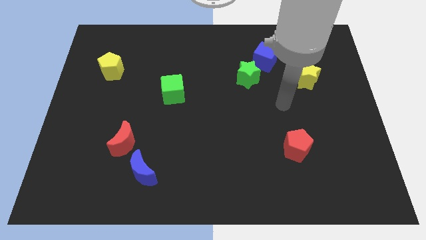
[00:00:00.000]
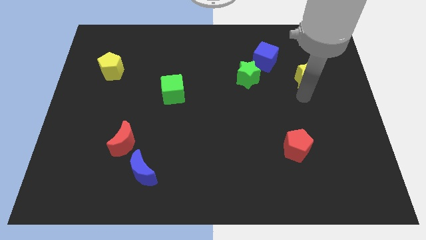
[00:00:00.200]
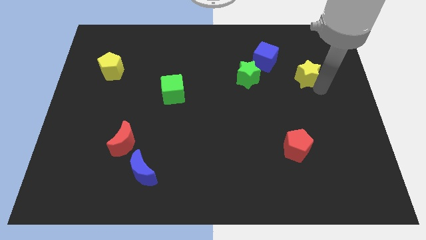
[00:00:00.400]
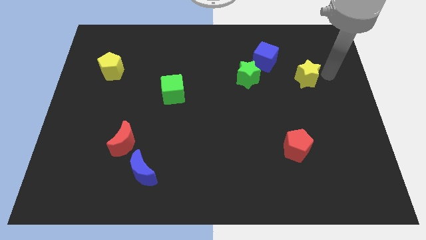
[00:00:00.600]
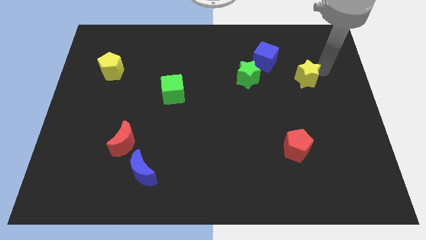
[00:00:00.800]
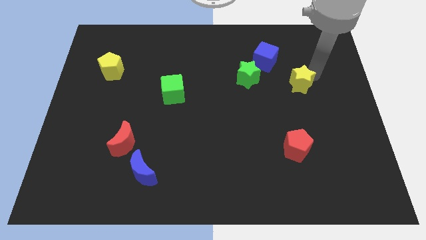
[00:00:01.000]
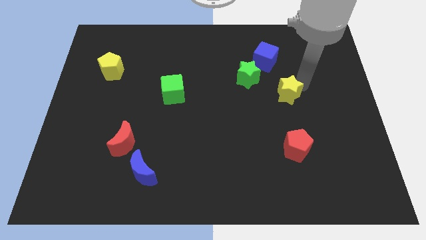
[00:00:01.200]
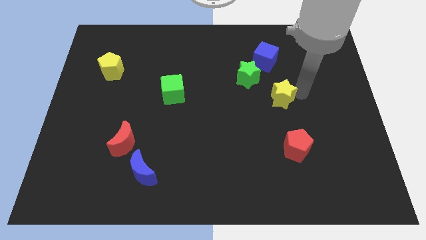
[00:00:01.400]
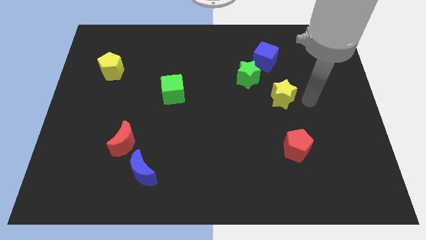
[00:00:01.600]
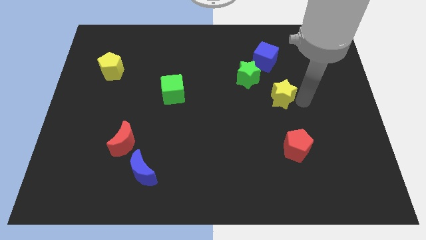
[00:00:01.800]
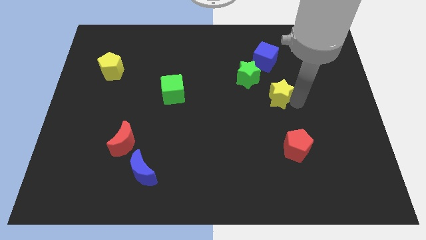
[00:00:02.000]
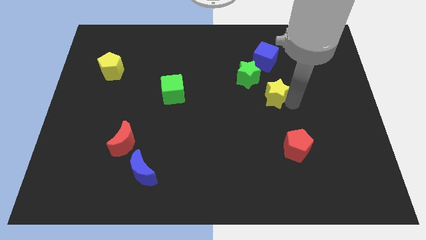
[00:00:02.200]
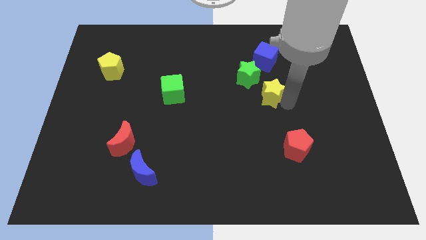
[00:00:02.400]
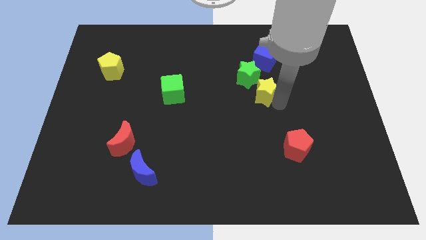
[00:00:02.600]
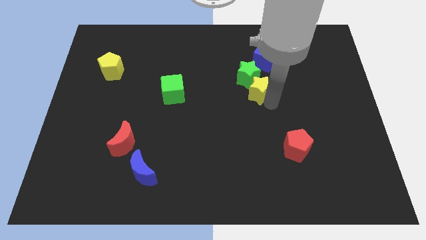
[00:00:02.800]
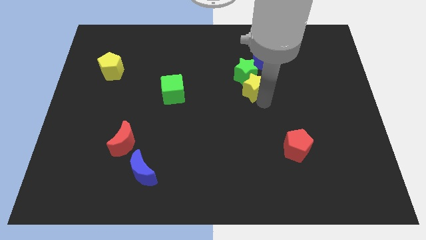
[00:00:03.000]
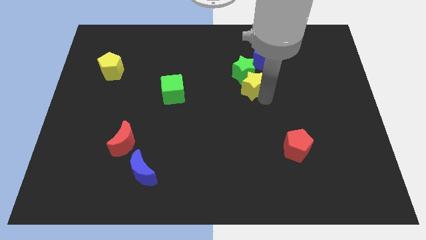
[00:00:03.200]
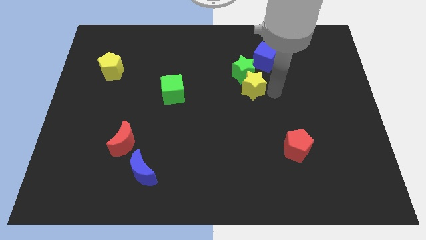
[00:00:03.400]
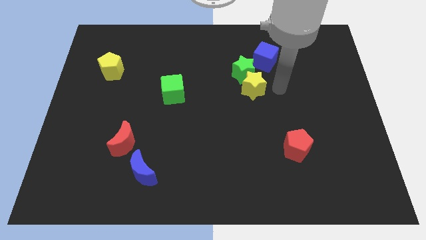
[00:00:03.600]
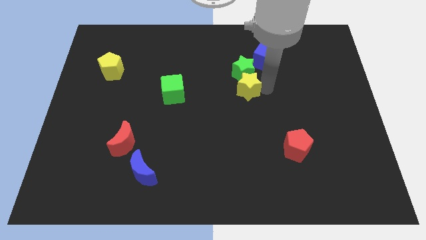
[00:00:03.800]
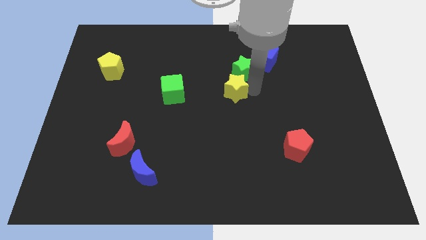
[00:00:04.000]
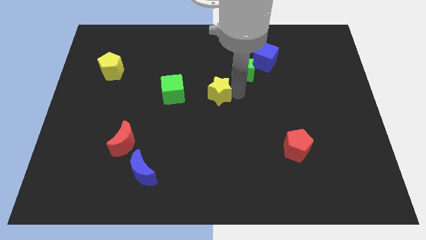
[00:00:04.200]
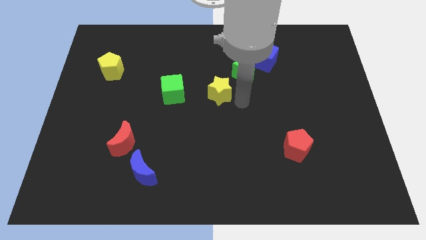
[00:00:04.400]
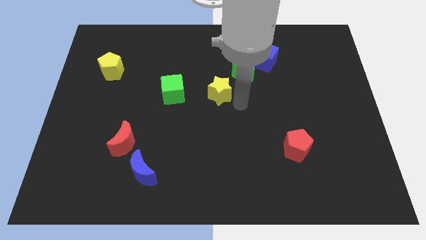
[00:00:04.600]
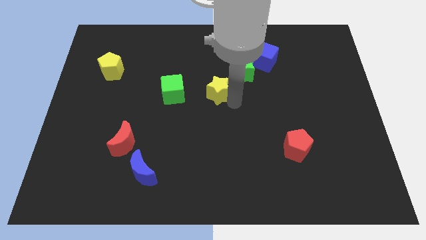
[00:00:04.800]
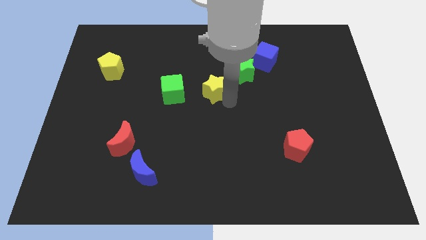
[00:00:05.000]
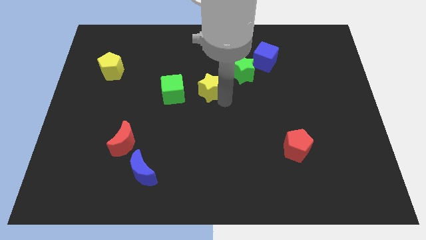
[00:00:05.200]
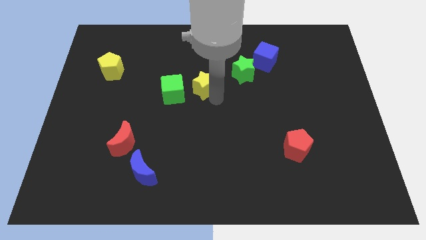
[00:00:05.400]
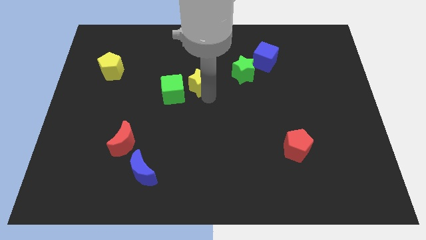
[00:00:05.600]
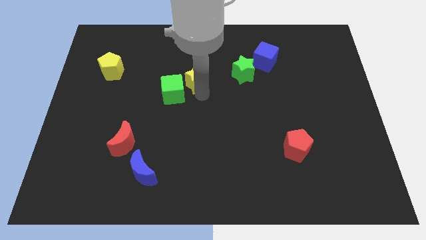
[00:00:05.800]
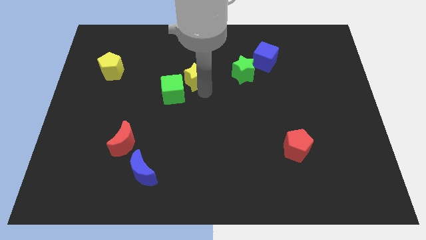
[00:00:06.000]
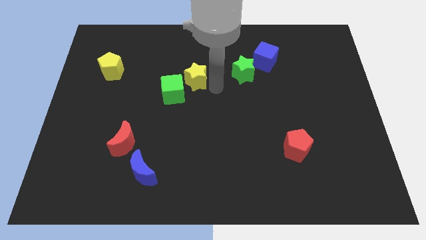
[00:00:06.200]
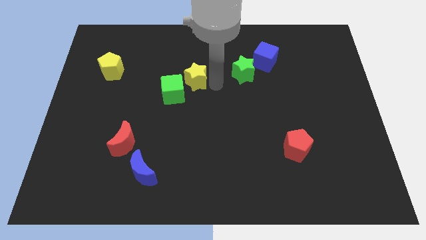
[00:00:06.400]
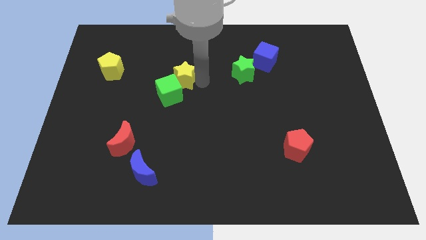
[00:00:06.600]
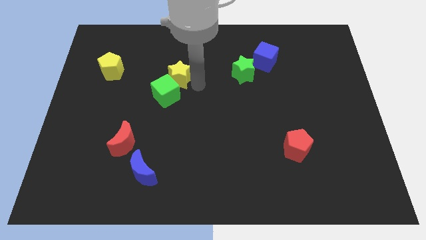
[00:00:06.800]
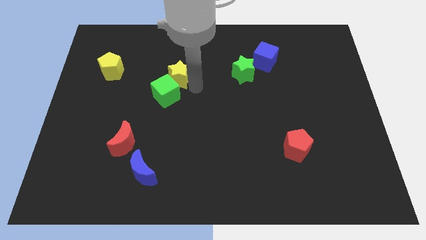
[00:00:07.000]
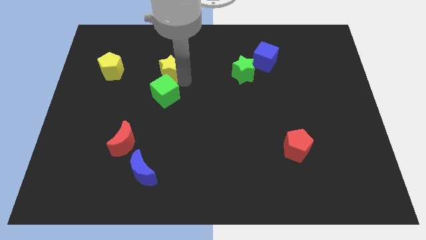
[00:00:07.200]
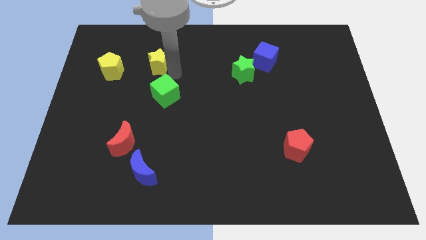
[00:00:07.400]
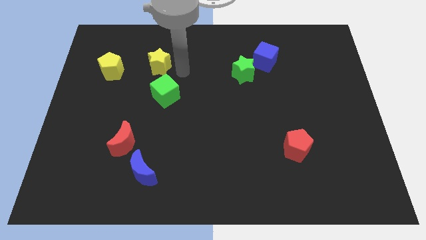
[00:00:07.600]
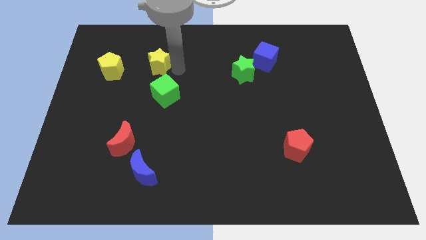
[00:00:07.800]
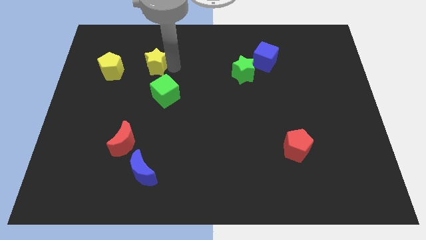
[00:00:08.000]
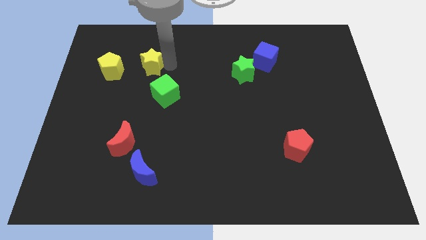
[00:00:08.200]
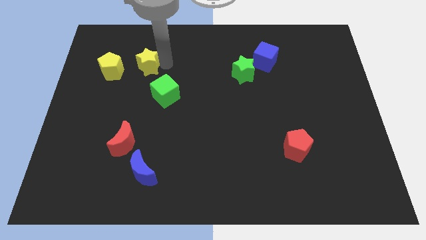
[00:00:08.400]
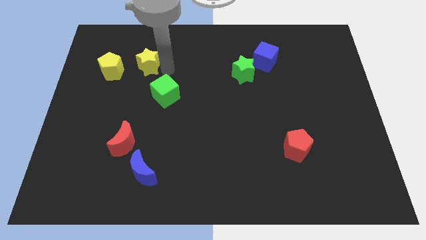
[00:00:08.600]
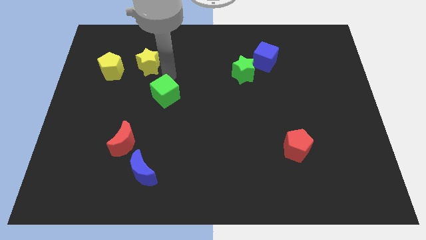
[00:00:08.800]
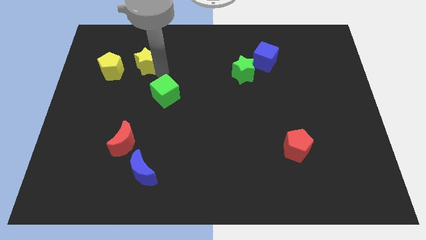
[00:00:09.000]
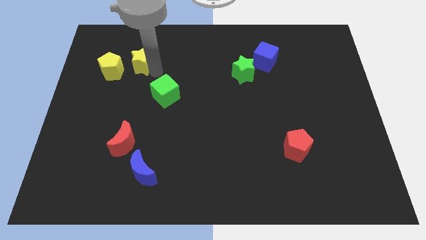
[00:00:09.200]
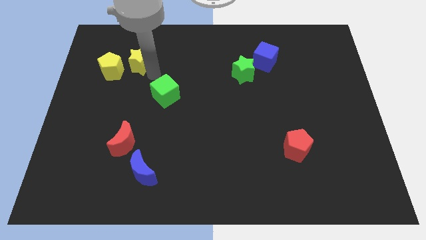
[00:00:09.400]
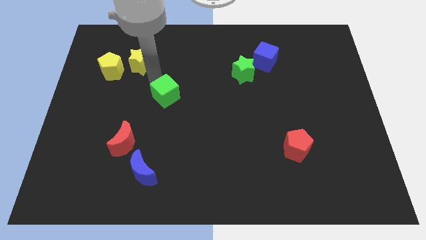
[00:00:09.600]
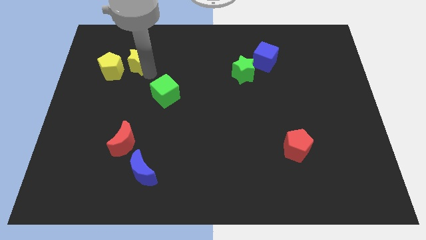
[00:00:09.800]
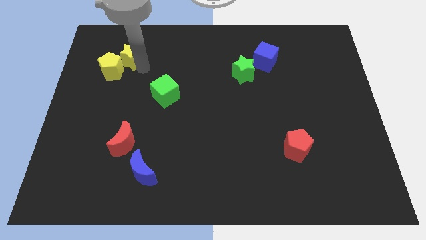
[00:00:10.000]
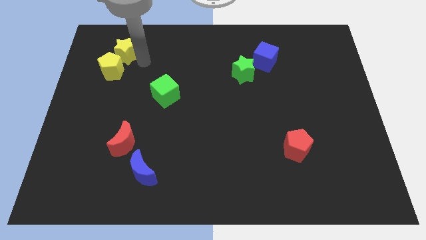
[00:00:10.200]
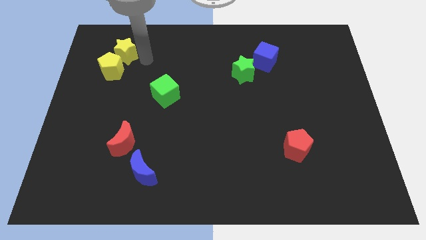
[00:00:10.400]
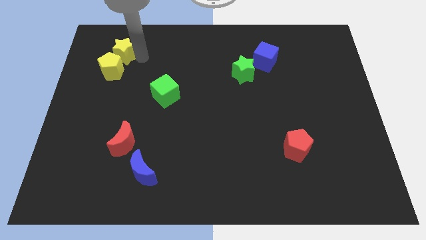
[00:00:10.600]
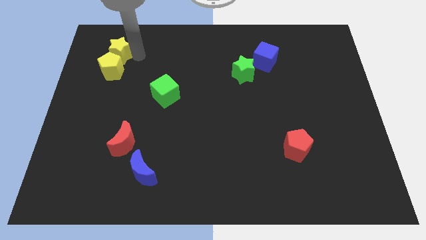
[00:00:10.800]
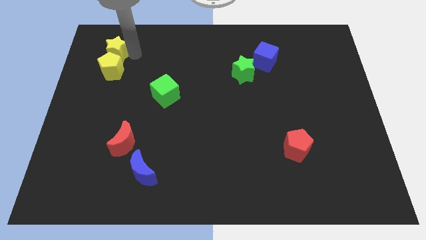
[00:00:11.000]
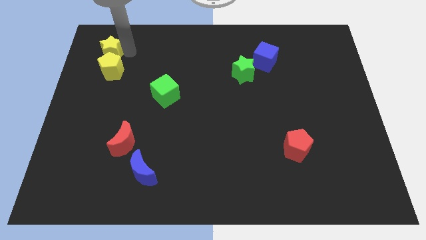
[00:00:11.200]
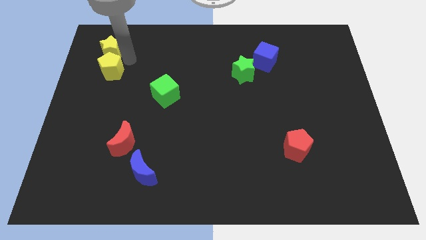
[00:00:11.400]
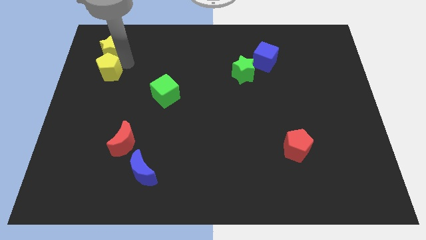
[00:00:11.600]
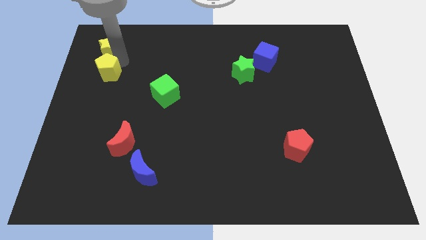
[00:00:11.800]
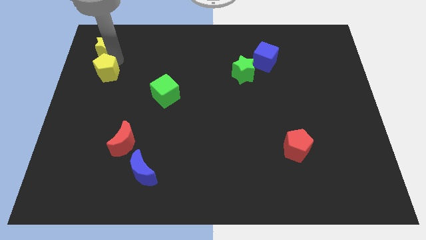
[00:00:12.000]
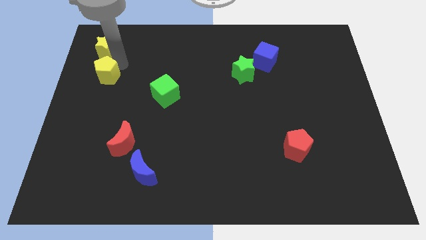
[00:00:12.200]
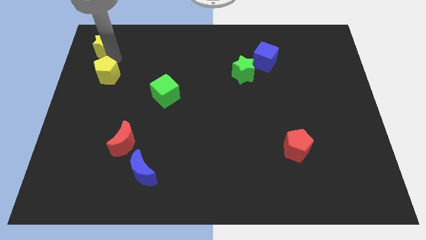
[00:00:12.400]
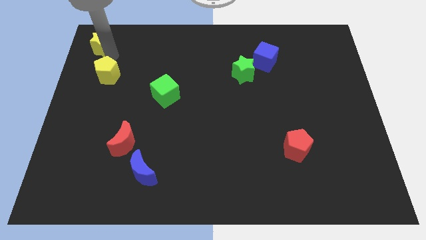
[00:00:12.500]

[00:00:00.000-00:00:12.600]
move the yellow star to the upper left corner

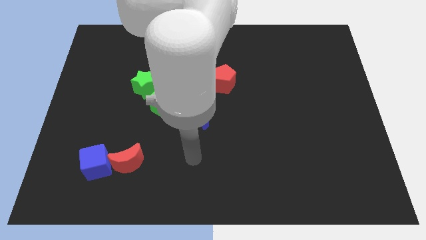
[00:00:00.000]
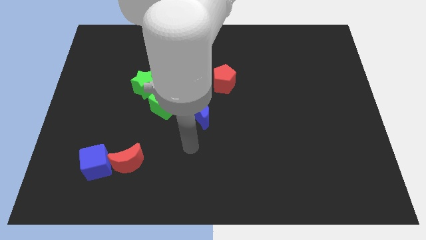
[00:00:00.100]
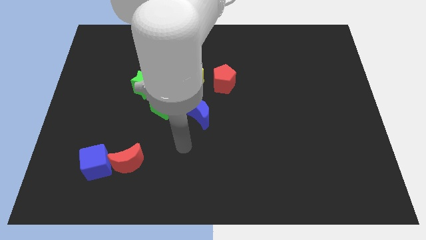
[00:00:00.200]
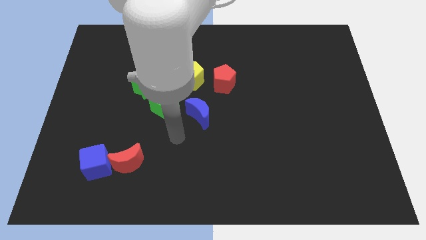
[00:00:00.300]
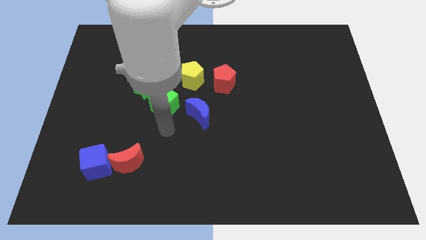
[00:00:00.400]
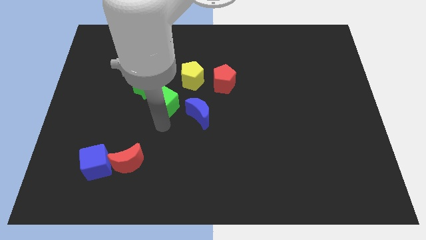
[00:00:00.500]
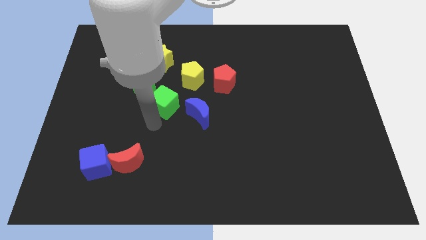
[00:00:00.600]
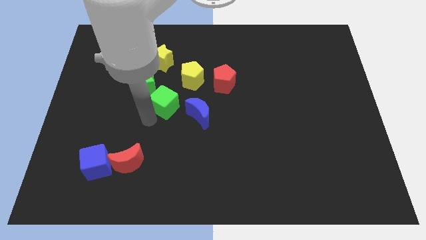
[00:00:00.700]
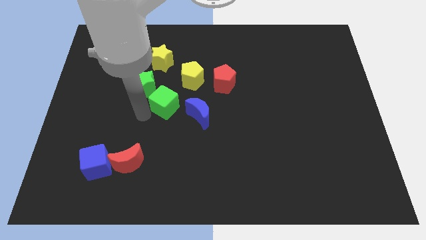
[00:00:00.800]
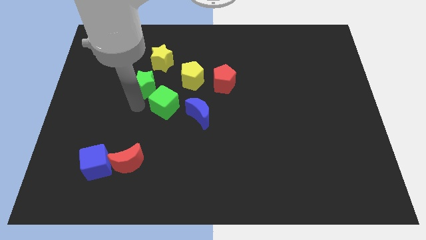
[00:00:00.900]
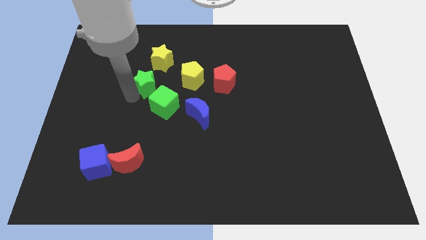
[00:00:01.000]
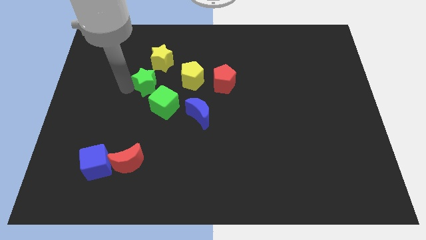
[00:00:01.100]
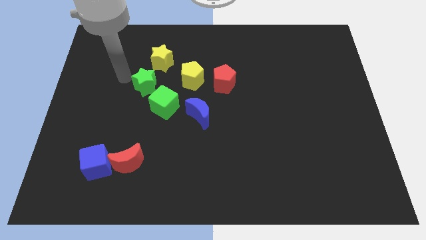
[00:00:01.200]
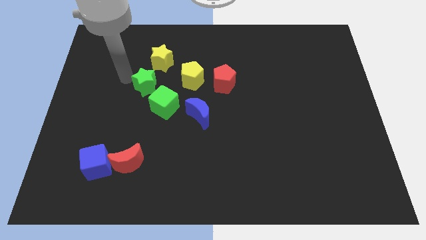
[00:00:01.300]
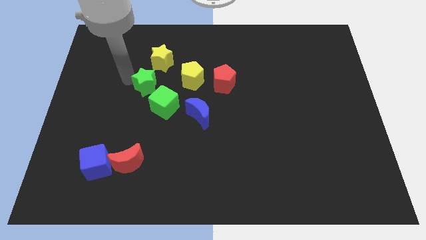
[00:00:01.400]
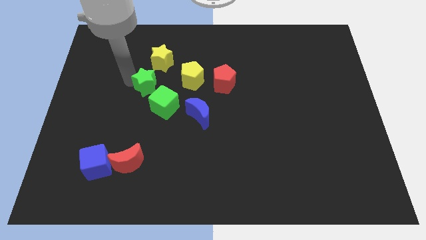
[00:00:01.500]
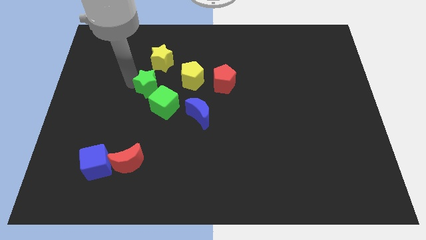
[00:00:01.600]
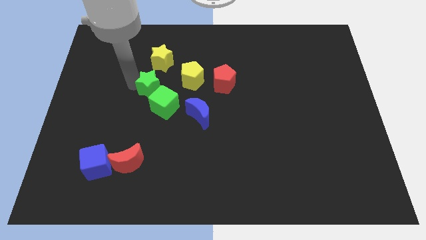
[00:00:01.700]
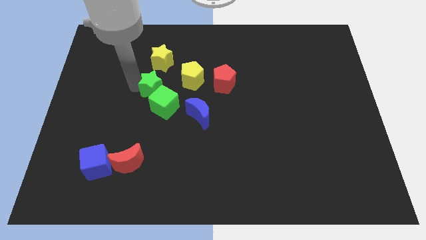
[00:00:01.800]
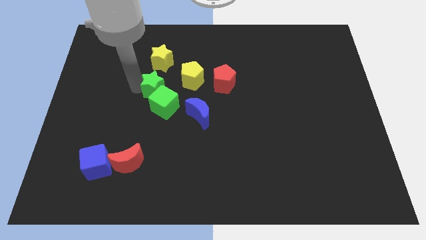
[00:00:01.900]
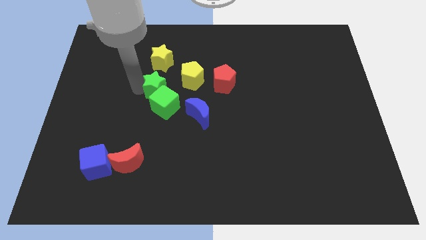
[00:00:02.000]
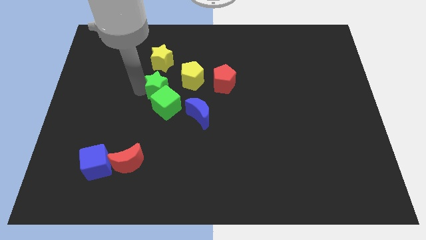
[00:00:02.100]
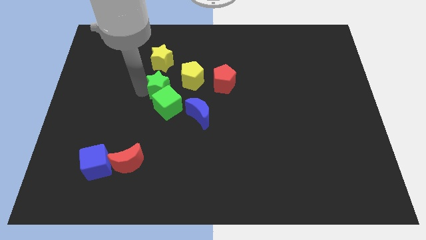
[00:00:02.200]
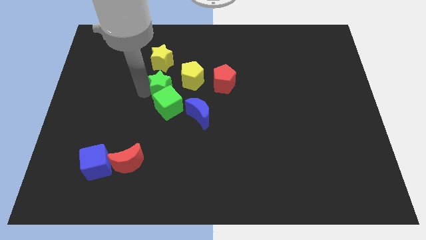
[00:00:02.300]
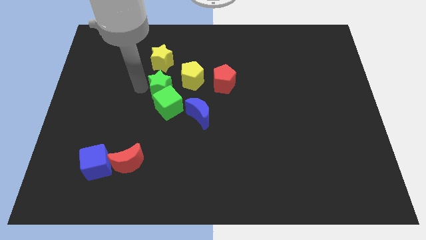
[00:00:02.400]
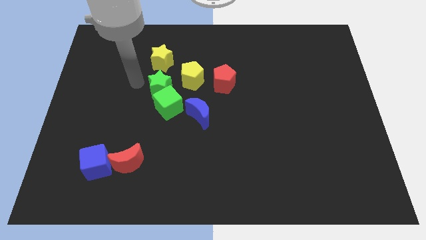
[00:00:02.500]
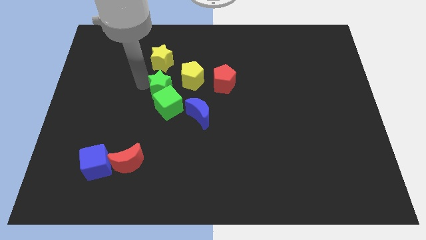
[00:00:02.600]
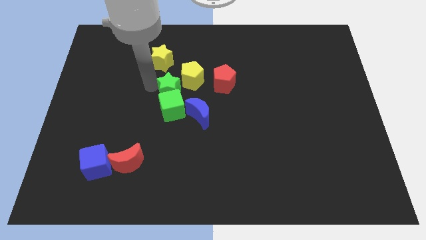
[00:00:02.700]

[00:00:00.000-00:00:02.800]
slide the green star to the center of the board
